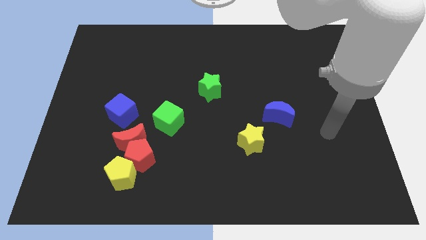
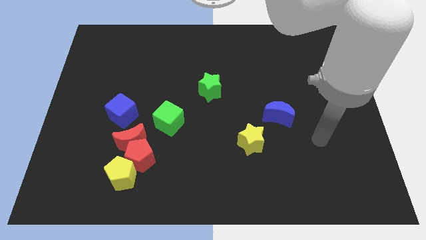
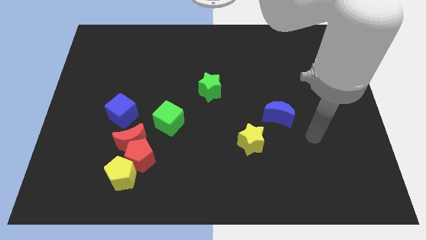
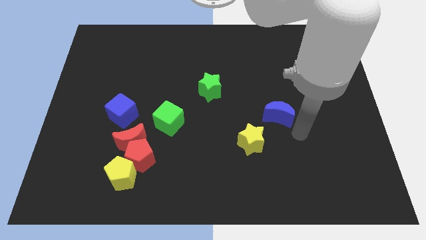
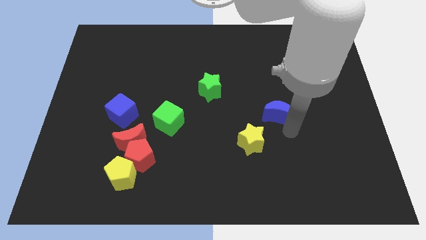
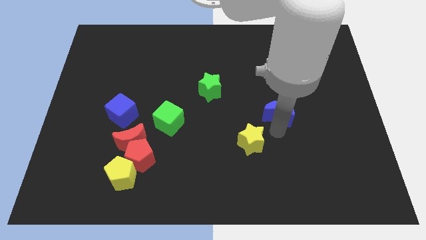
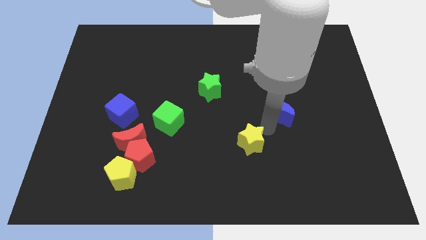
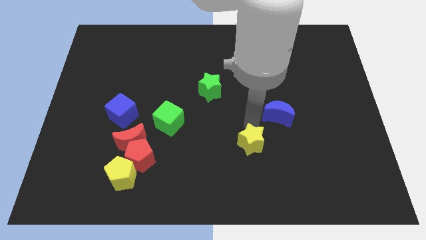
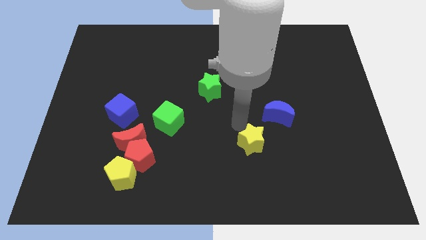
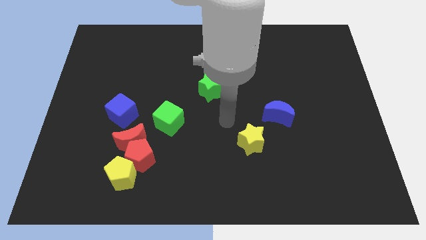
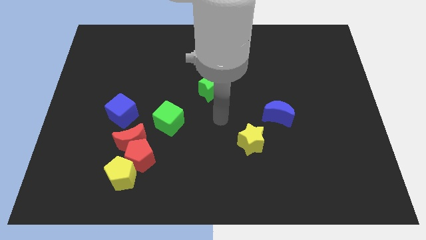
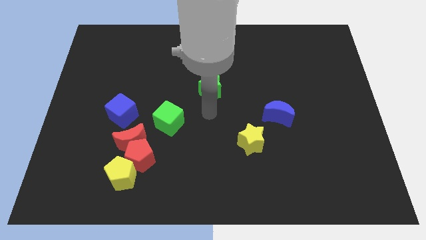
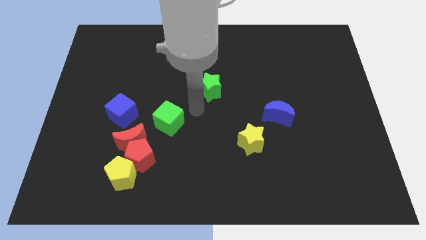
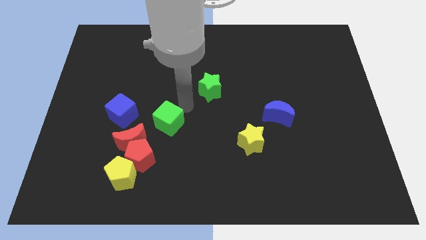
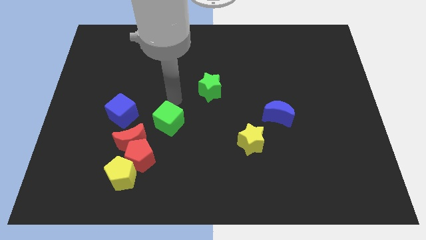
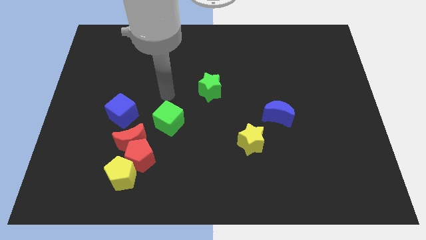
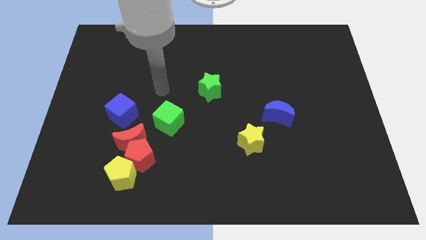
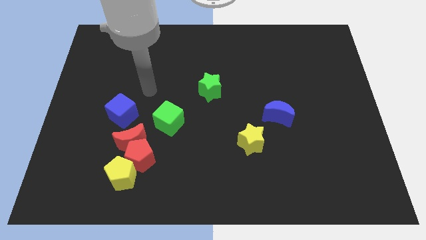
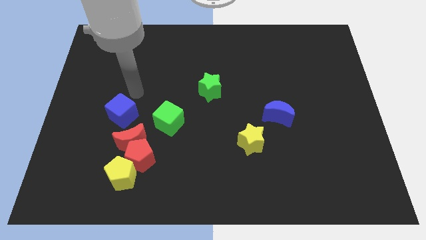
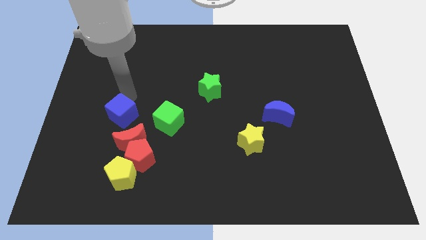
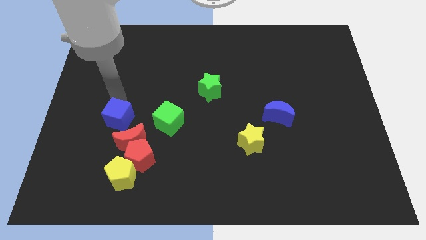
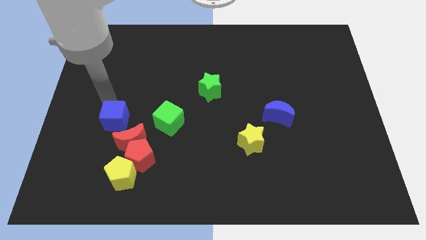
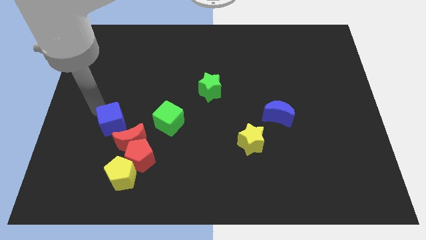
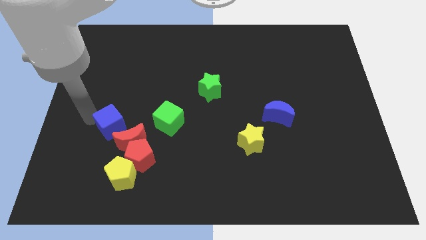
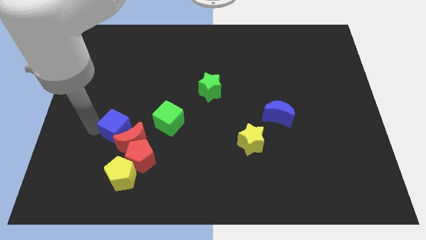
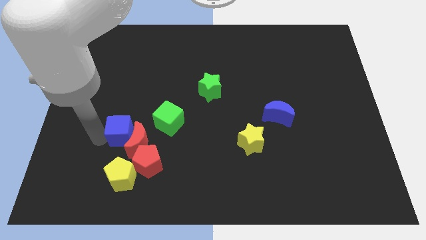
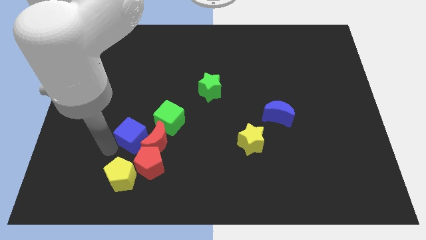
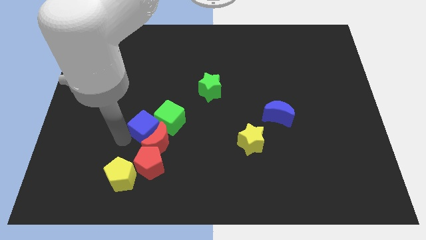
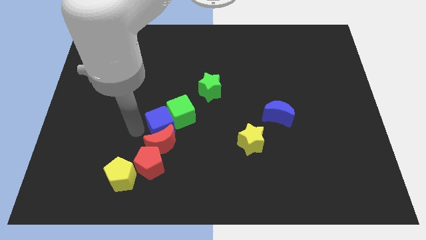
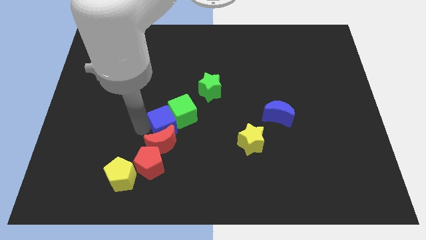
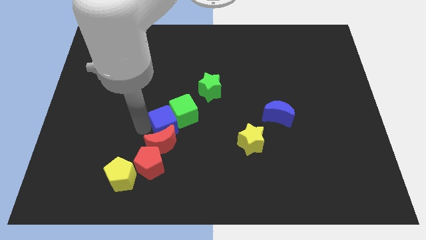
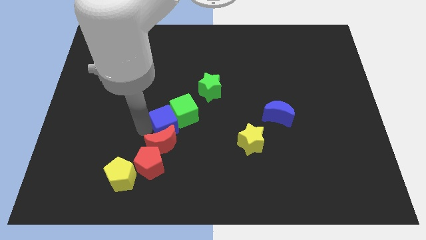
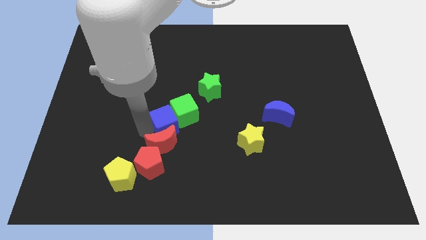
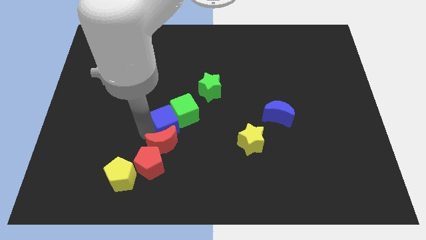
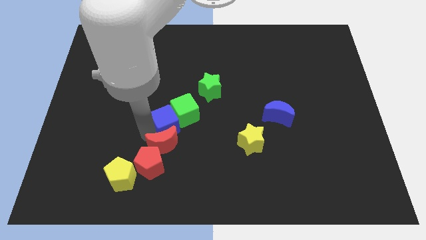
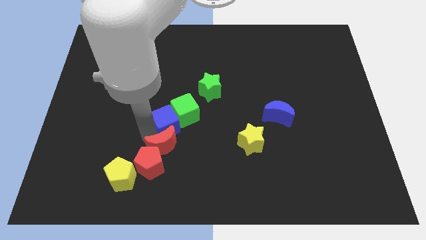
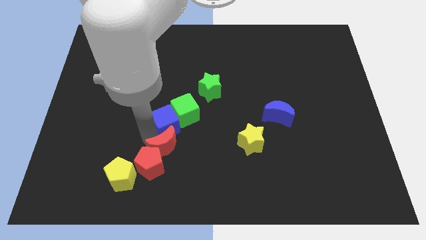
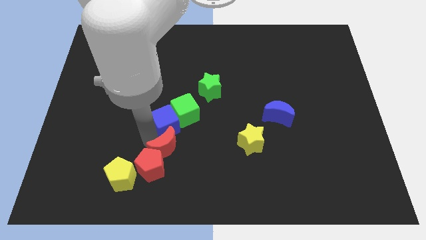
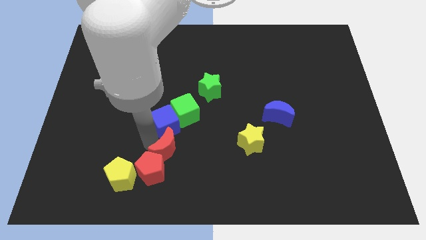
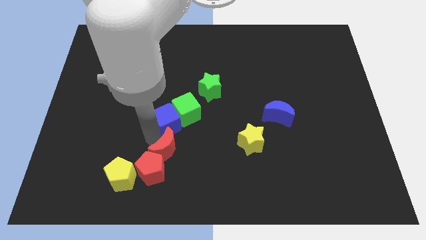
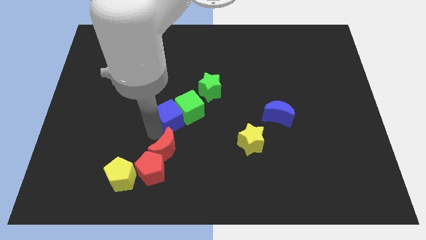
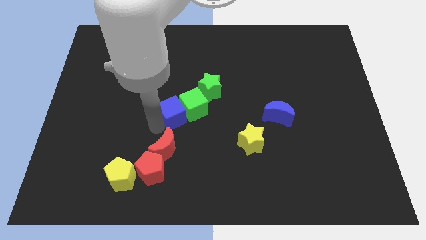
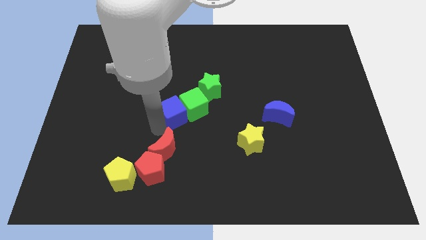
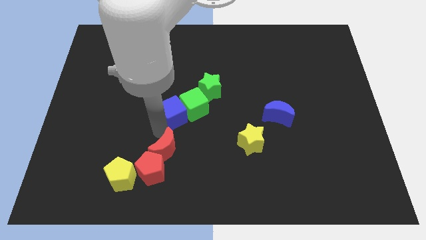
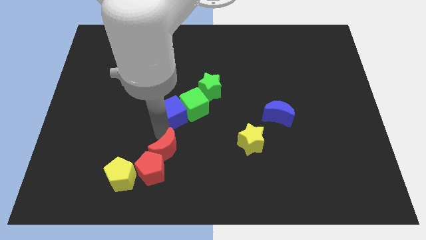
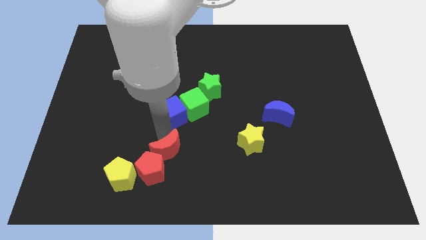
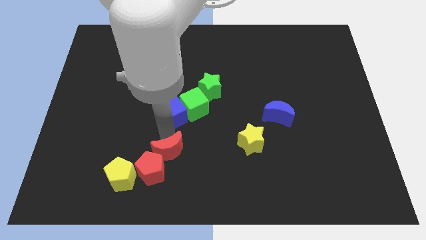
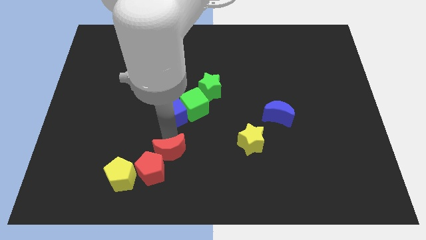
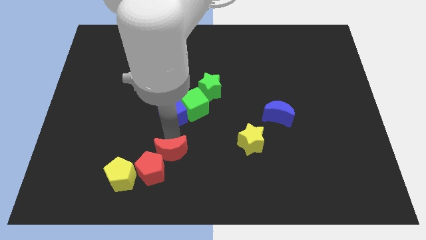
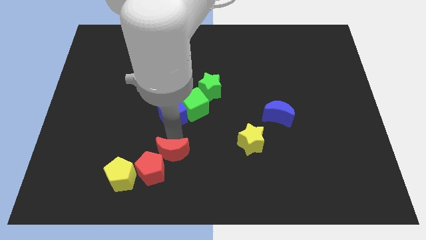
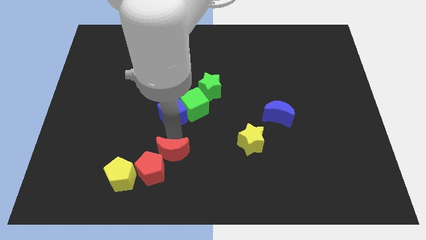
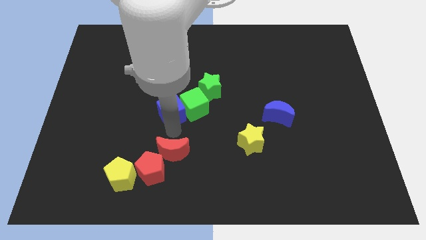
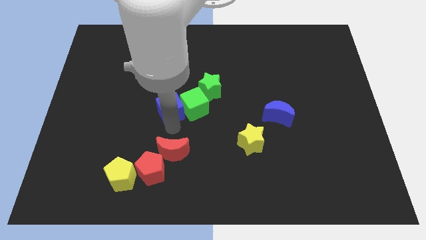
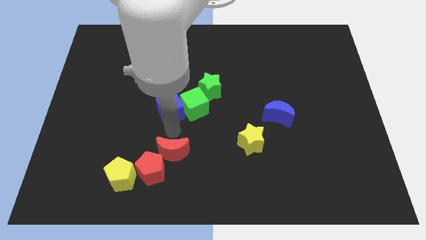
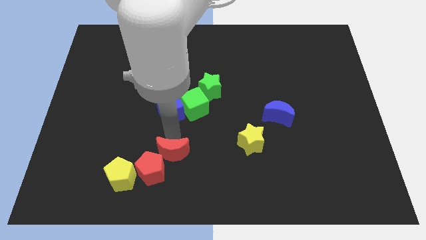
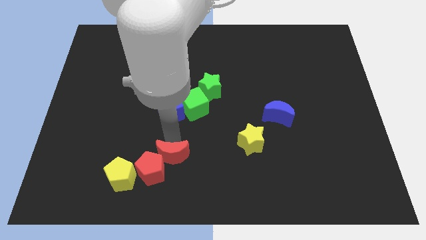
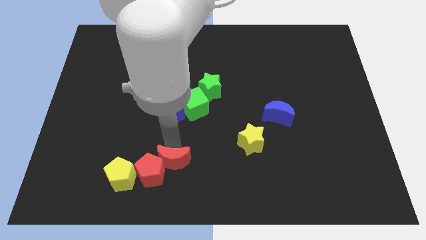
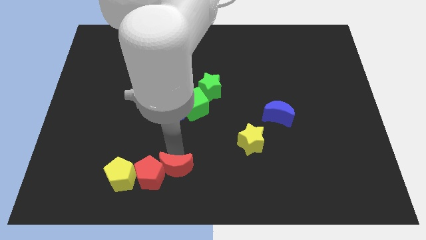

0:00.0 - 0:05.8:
put the red moon to the bottom

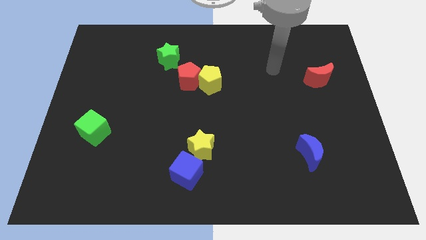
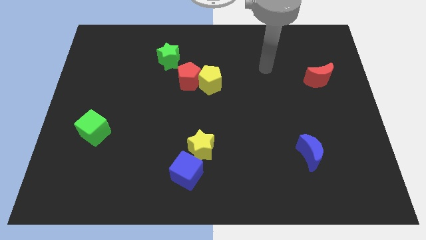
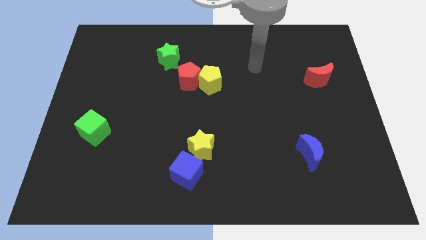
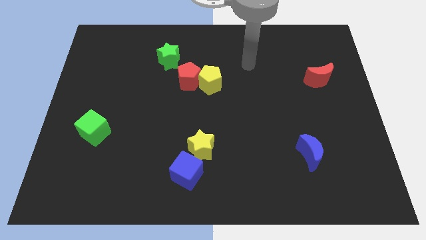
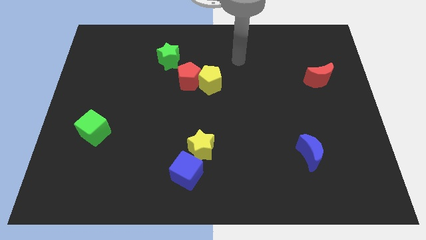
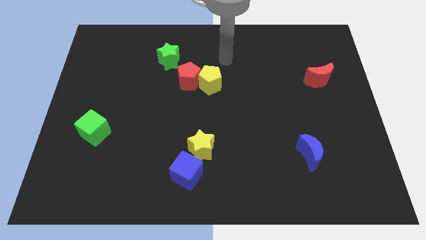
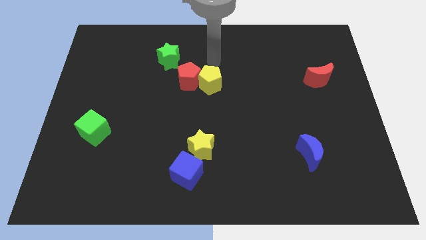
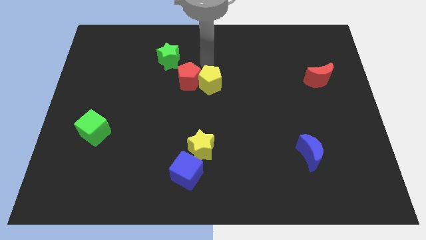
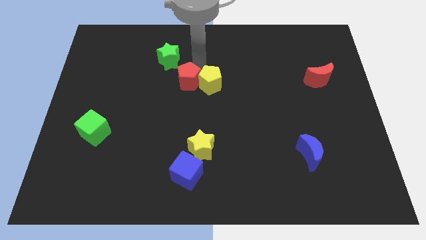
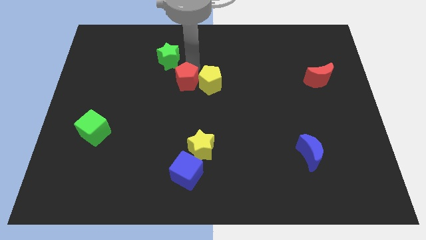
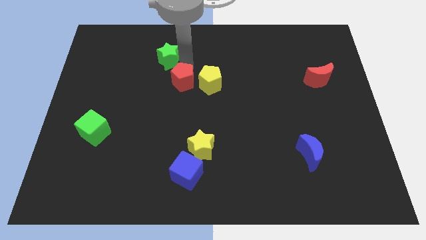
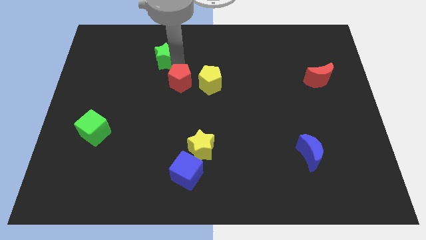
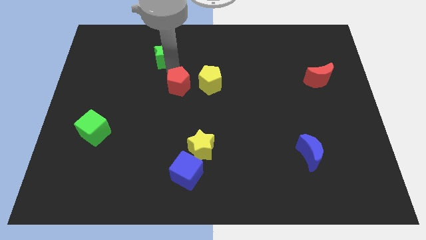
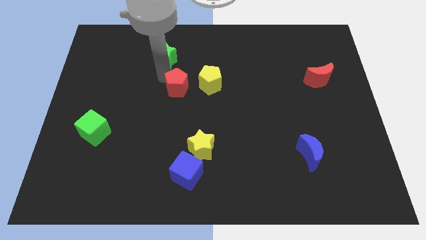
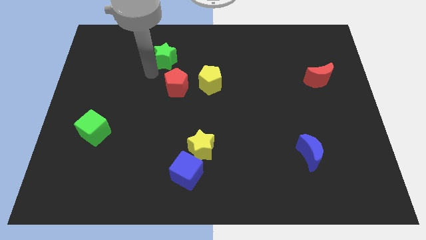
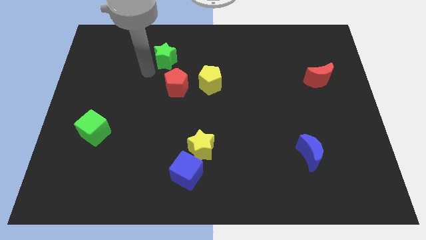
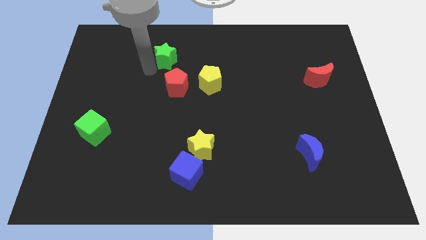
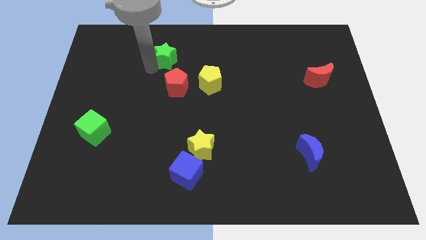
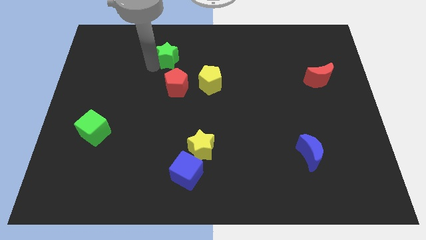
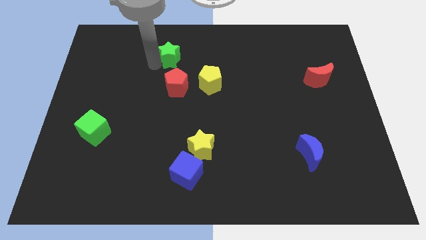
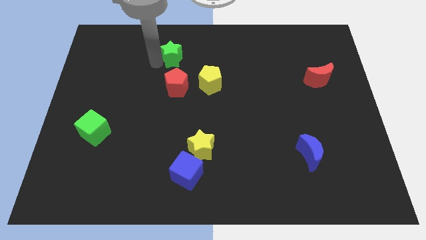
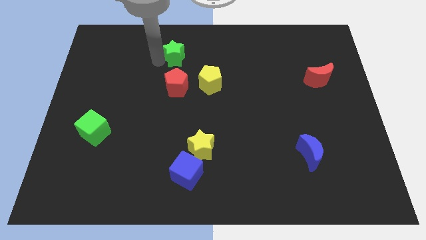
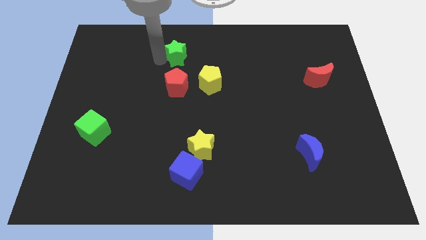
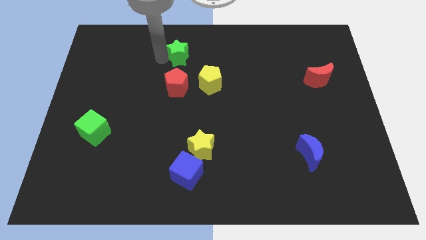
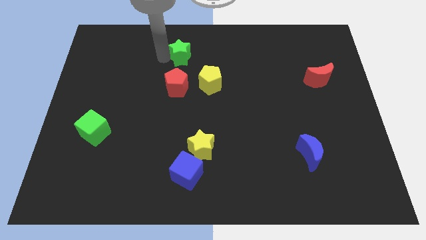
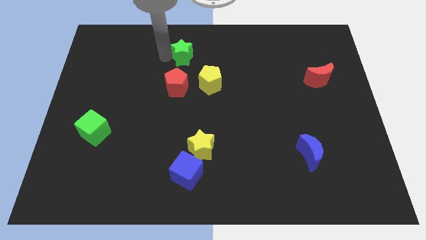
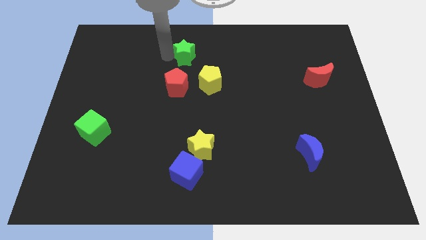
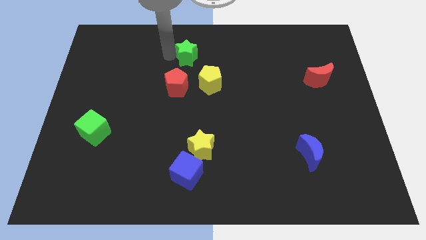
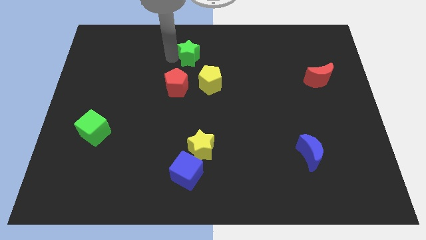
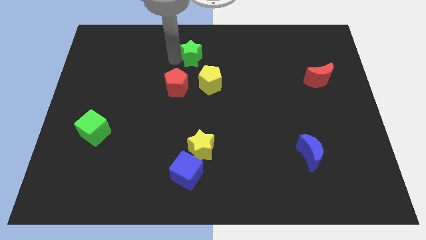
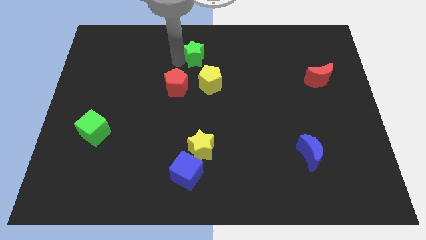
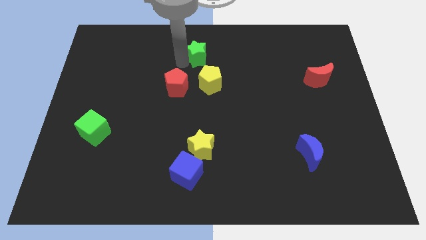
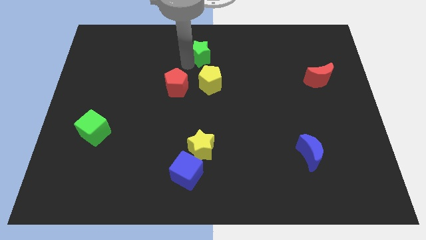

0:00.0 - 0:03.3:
move the green star to the top
